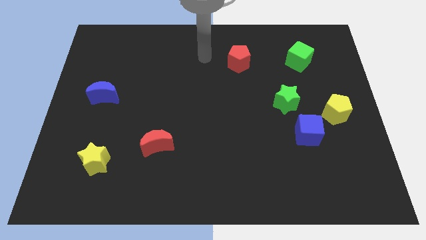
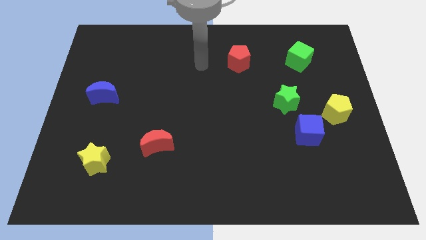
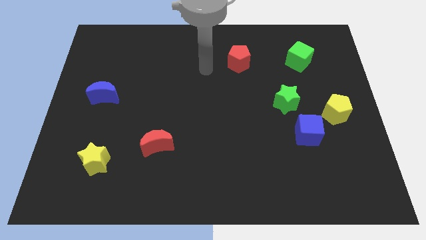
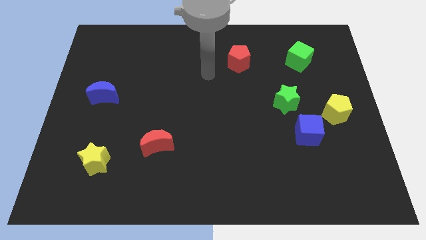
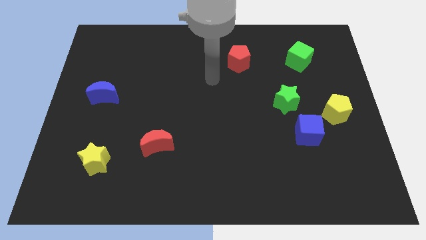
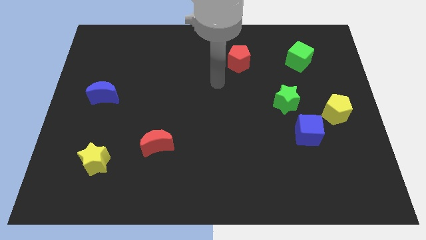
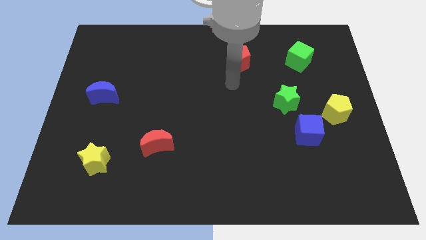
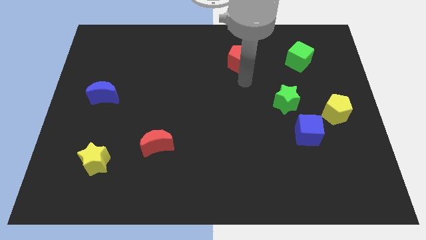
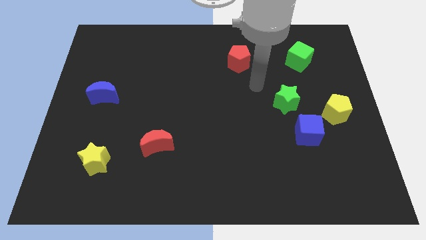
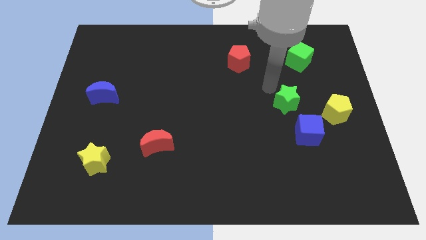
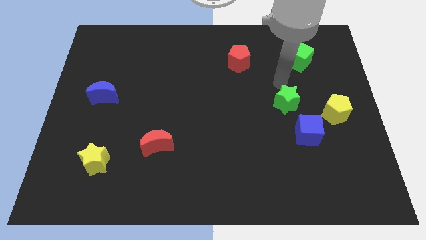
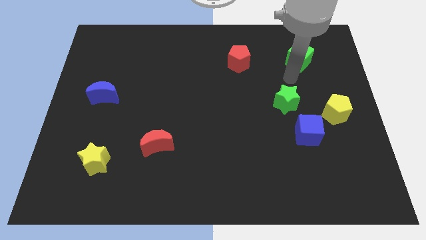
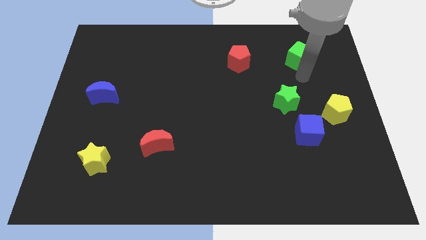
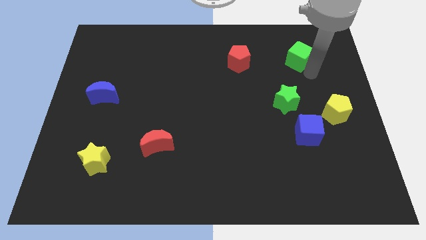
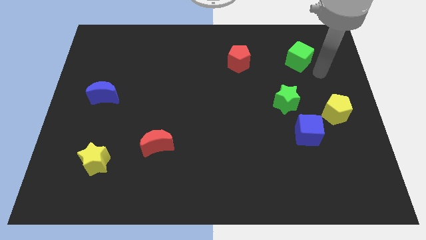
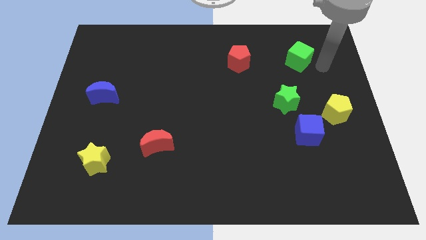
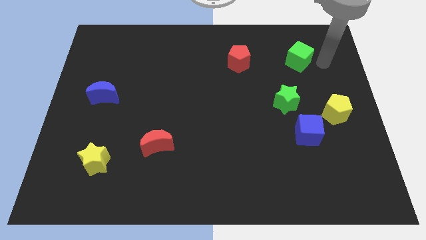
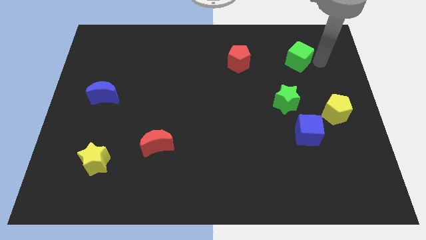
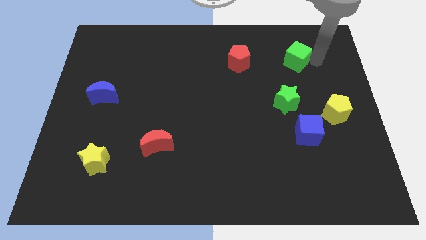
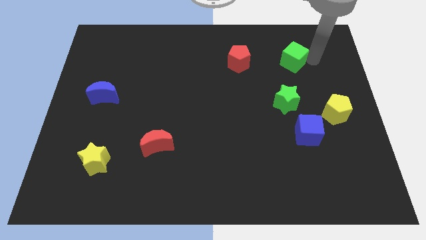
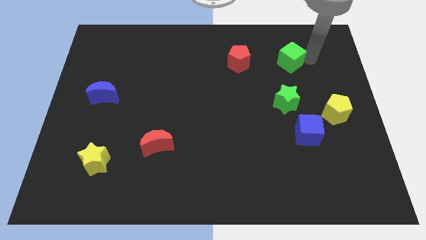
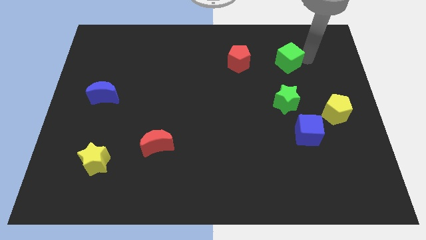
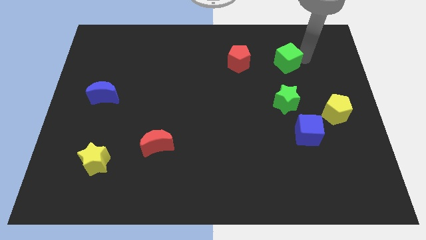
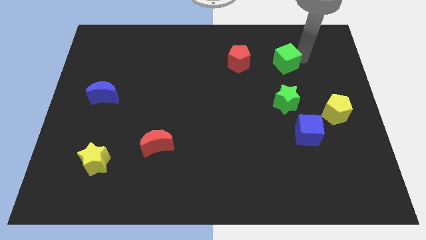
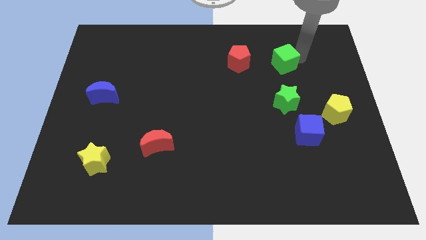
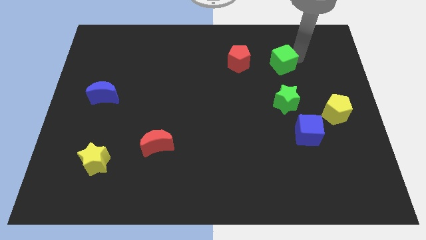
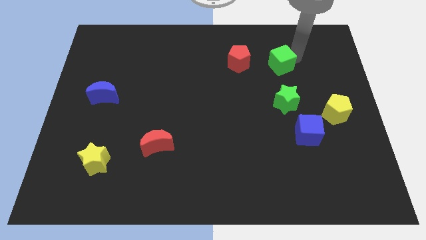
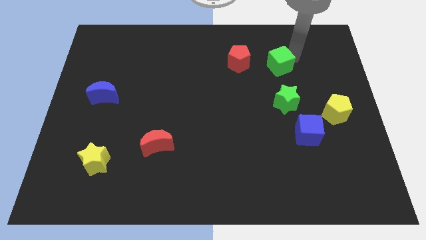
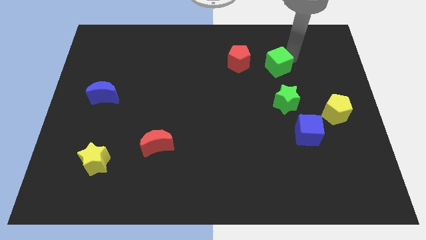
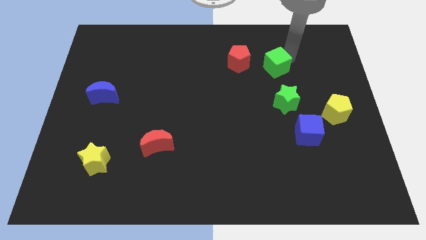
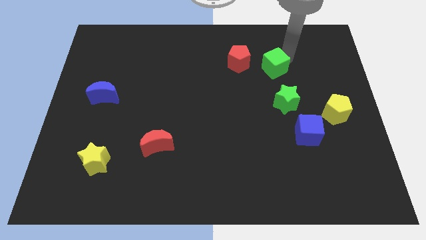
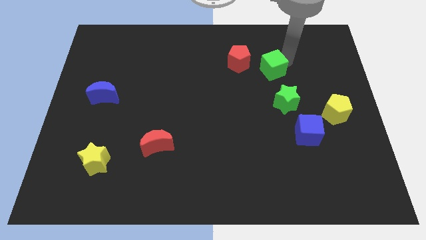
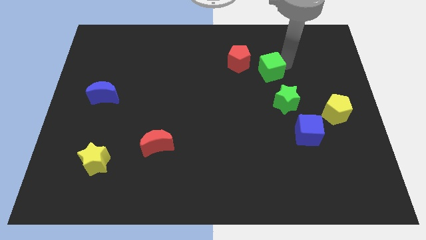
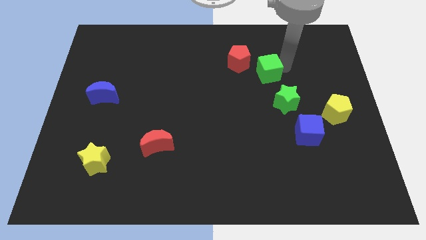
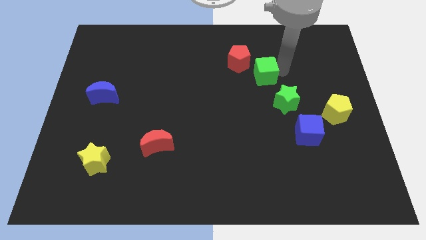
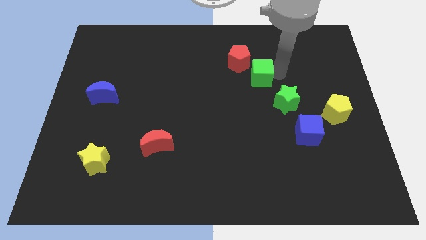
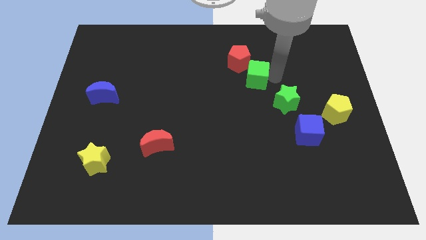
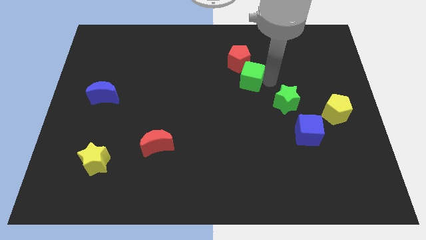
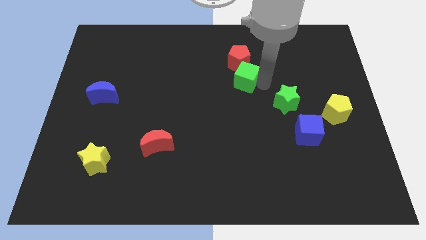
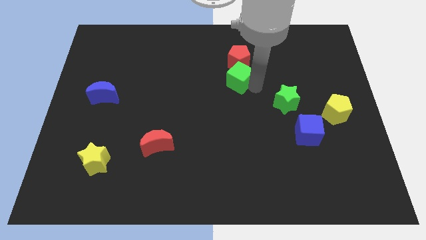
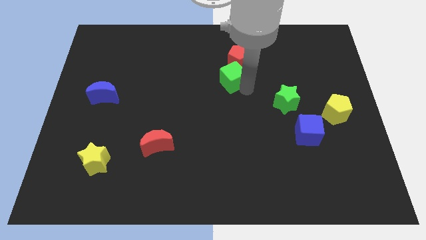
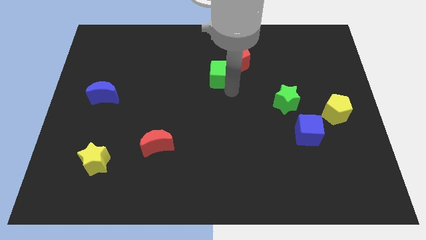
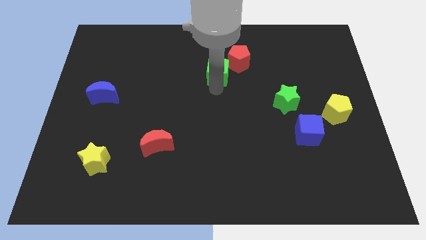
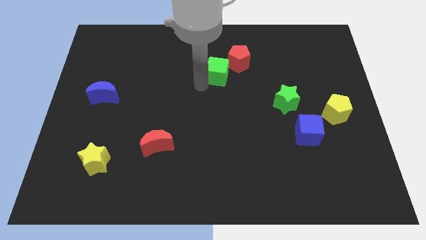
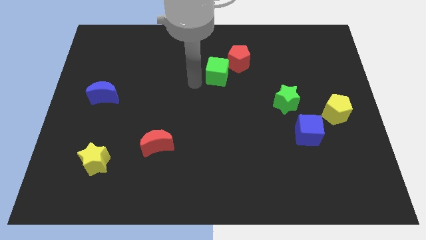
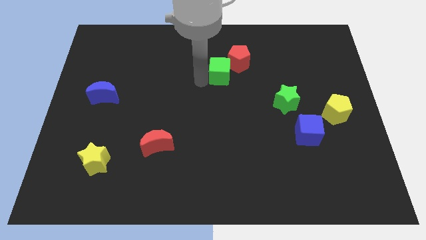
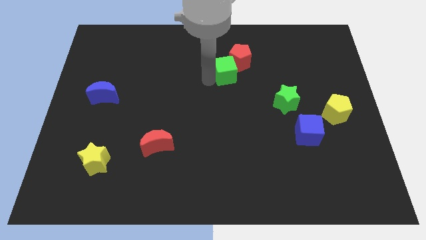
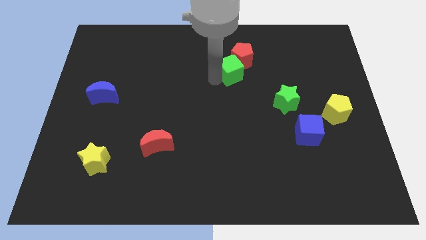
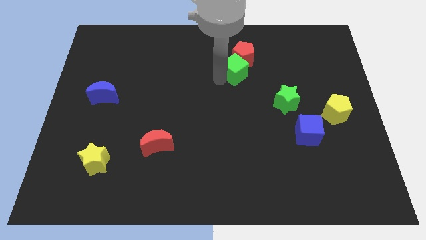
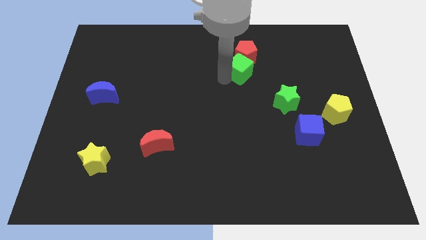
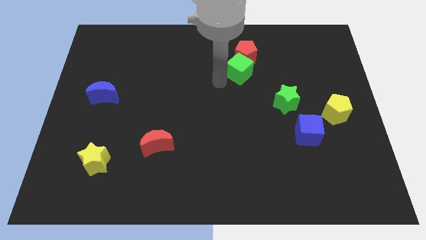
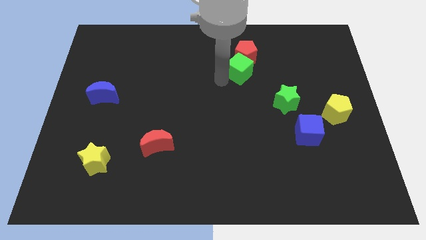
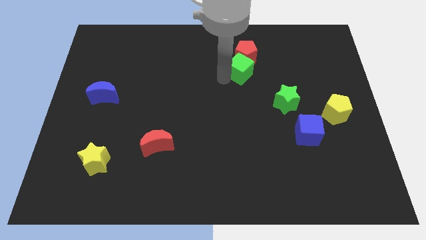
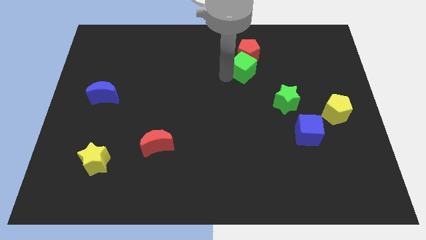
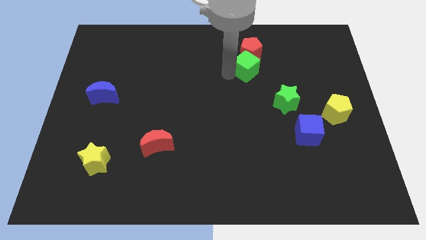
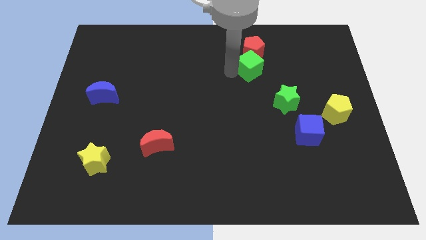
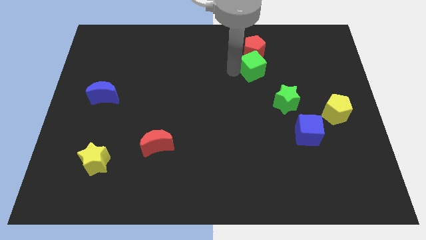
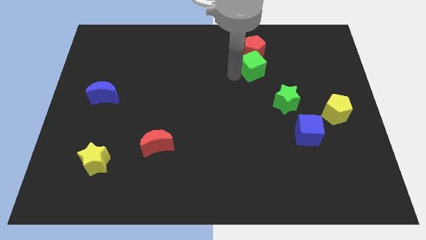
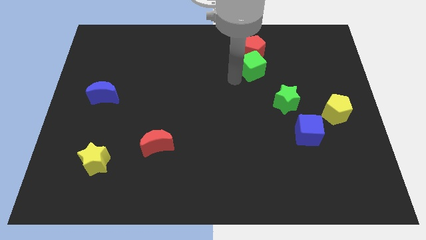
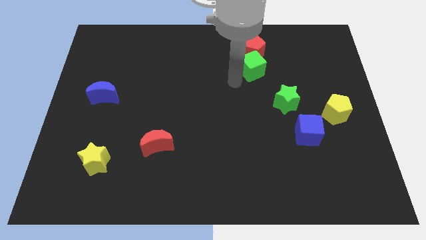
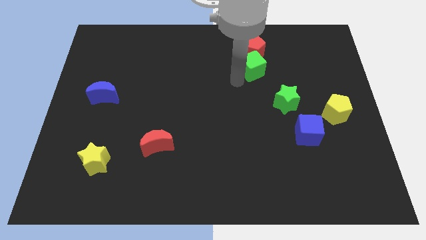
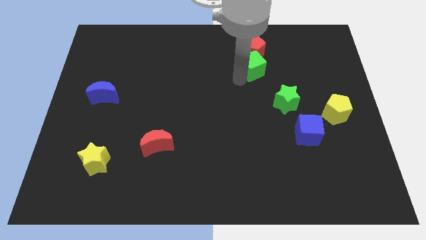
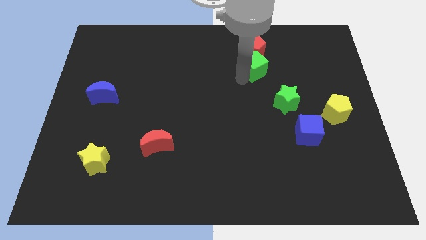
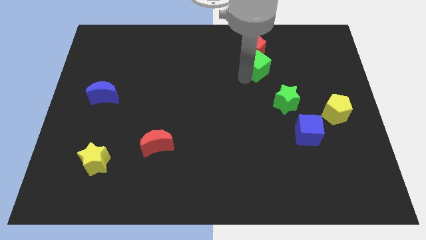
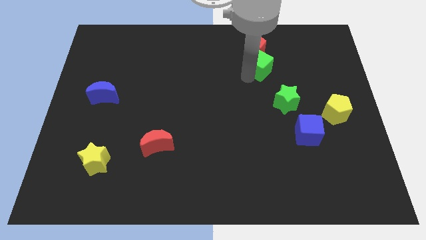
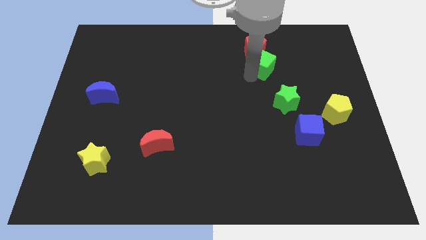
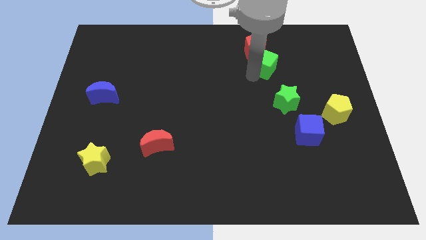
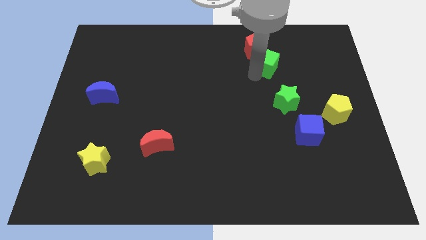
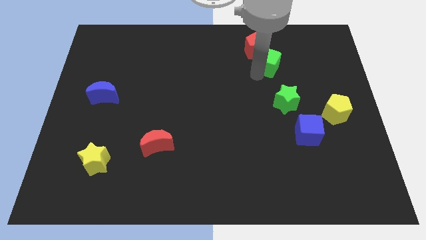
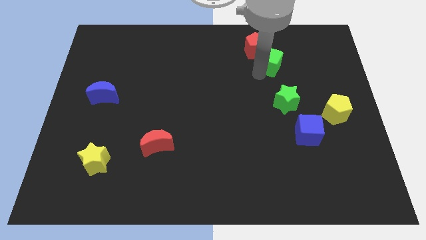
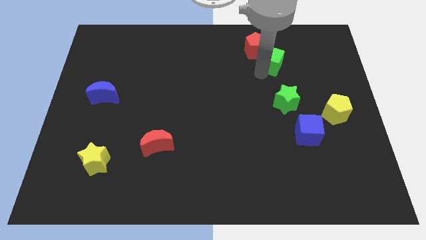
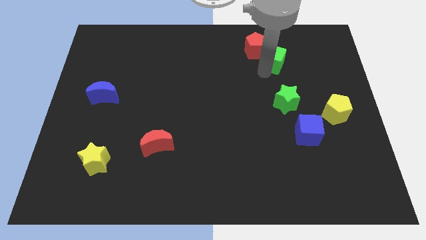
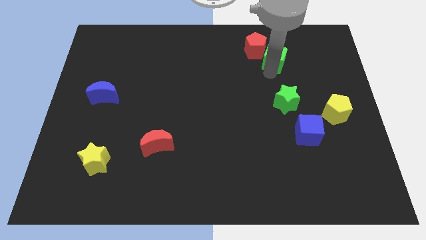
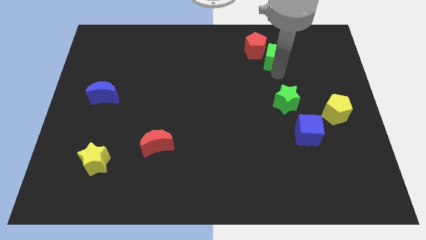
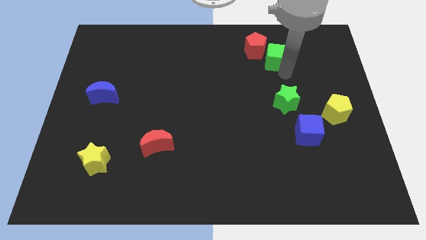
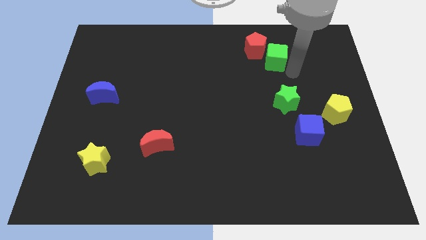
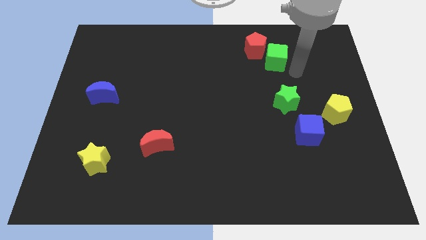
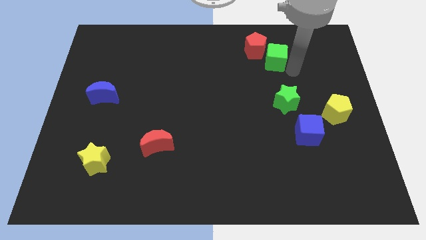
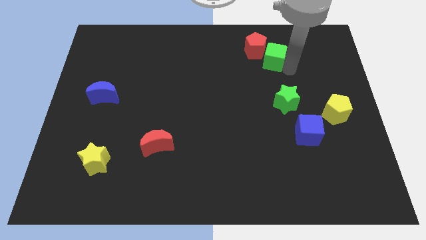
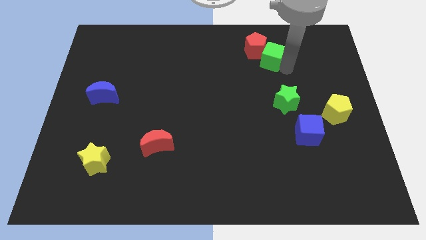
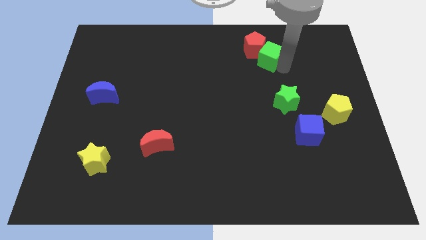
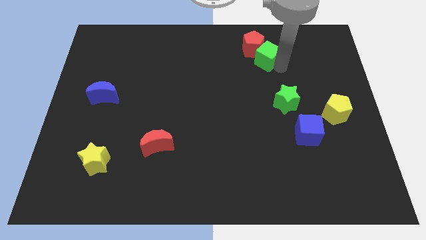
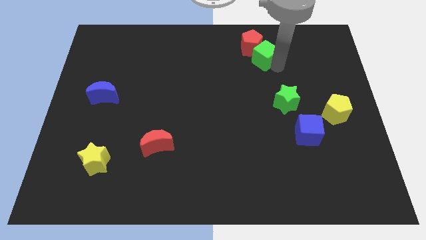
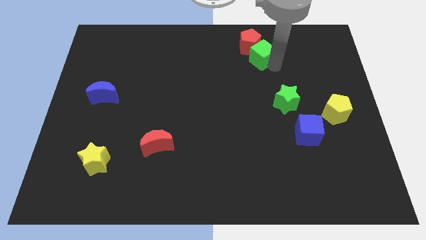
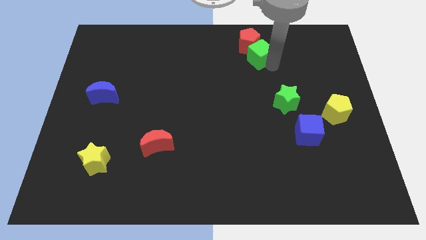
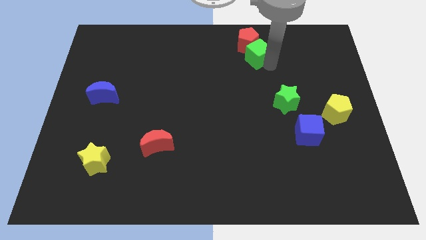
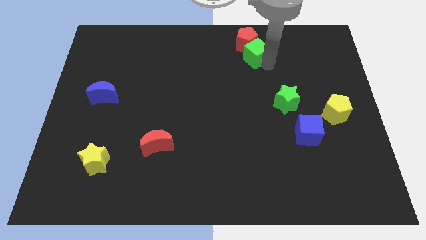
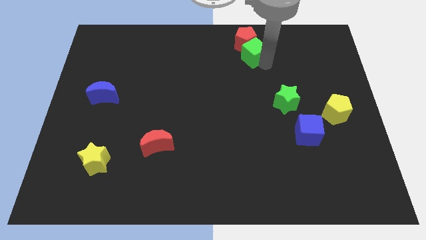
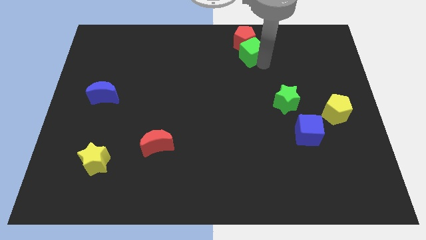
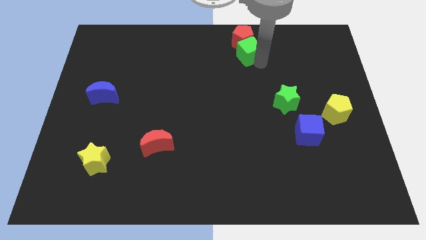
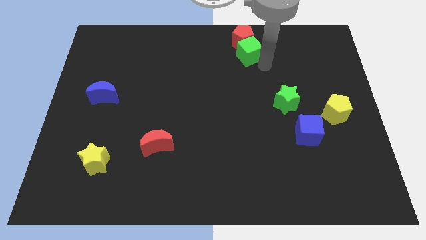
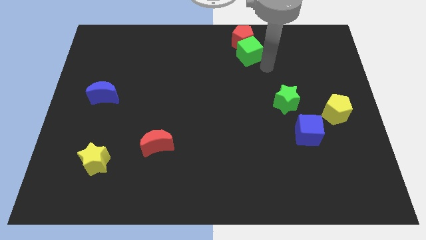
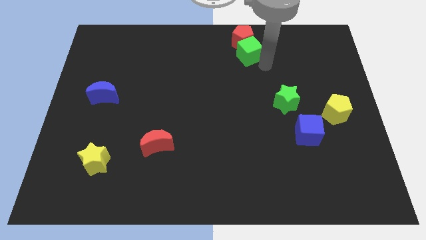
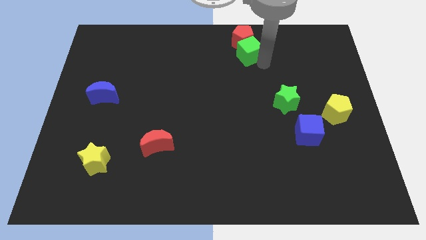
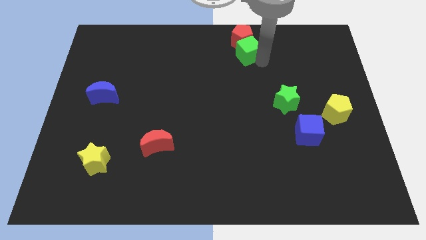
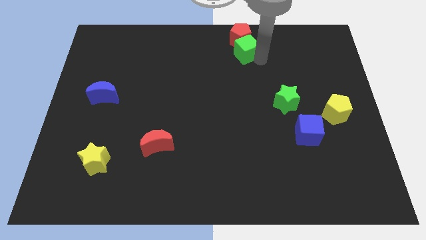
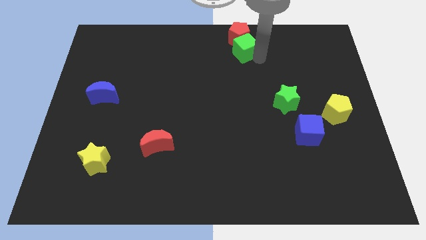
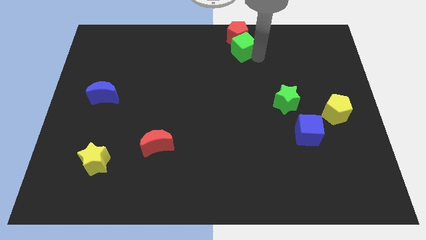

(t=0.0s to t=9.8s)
push the green cube to the top
